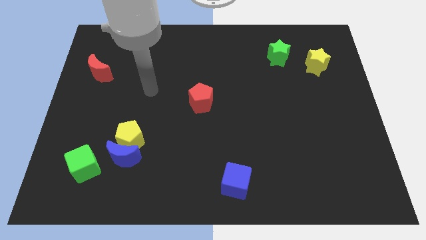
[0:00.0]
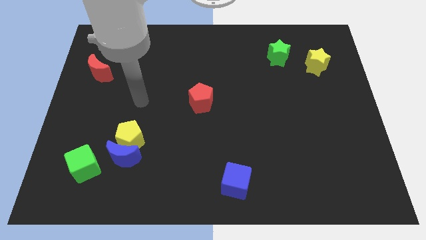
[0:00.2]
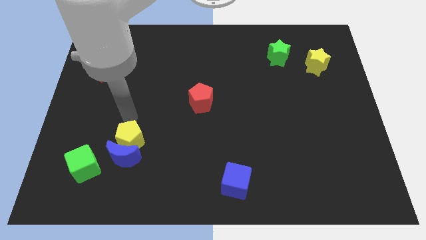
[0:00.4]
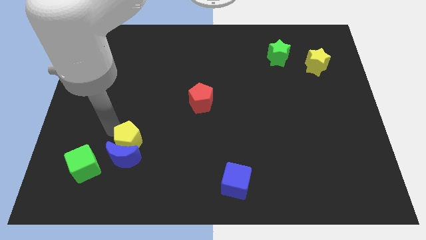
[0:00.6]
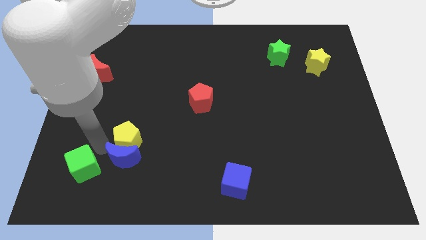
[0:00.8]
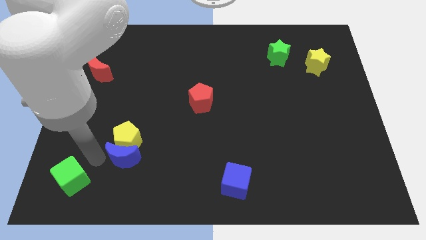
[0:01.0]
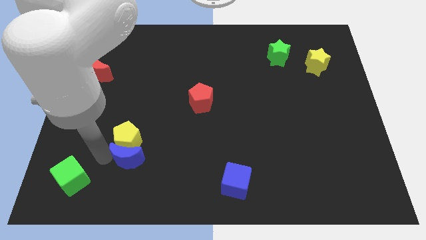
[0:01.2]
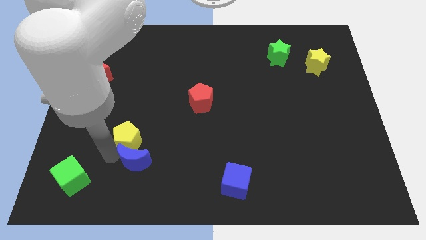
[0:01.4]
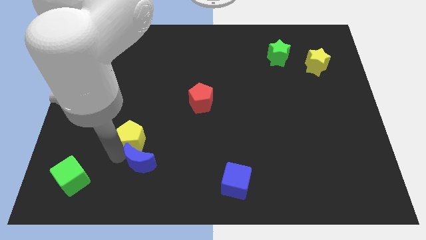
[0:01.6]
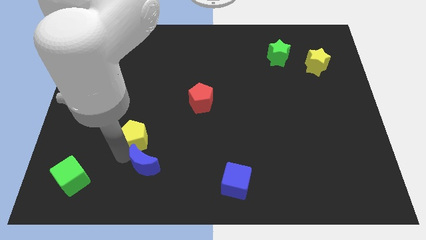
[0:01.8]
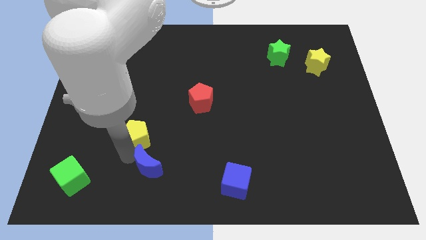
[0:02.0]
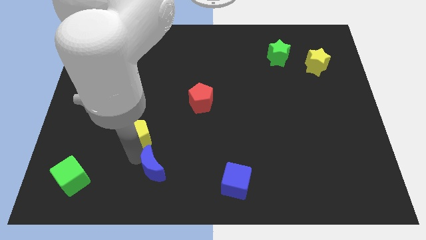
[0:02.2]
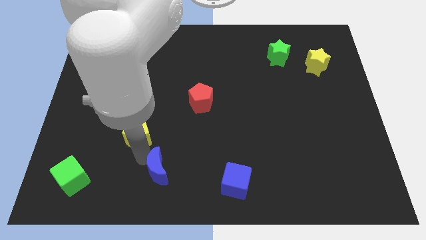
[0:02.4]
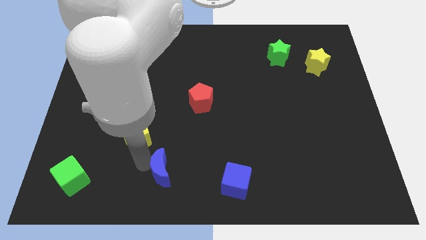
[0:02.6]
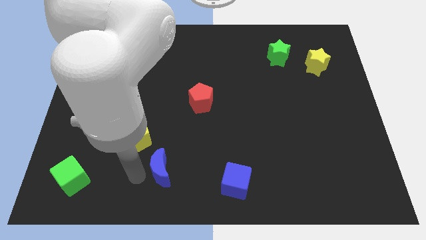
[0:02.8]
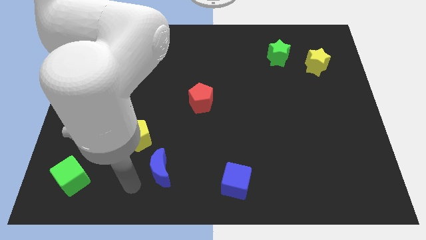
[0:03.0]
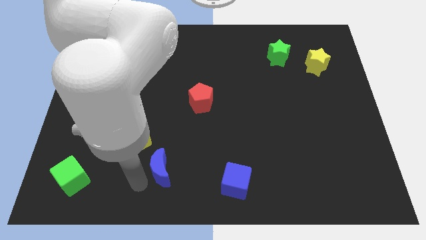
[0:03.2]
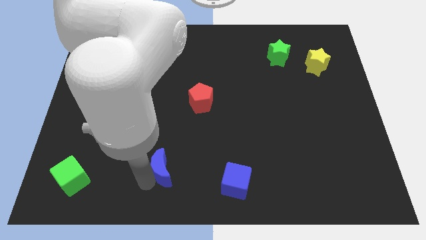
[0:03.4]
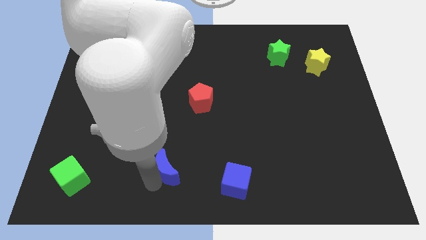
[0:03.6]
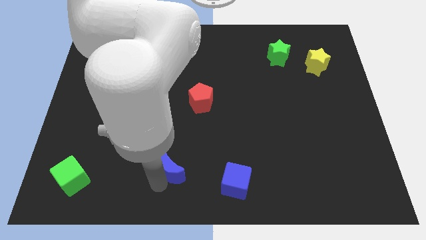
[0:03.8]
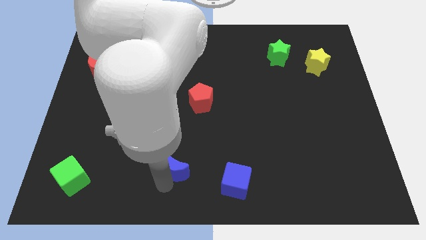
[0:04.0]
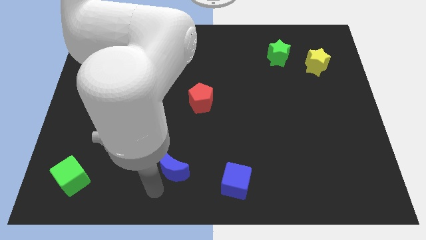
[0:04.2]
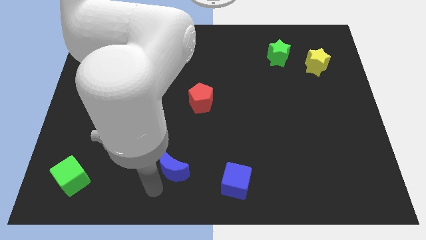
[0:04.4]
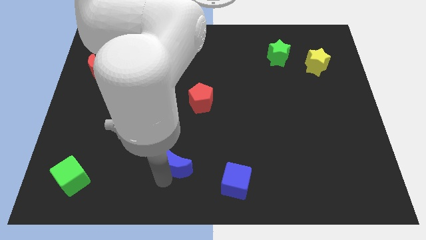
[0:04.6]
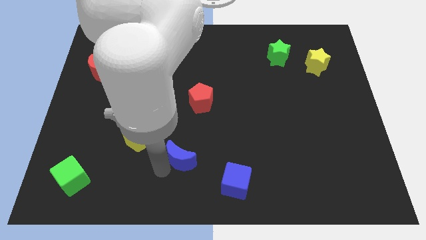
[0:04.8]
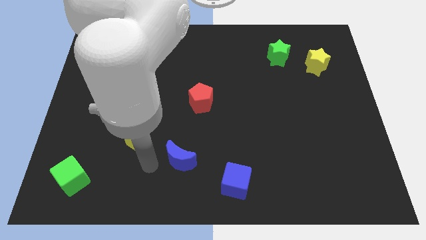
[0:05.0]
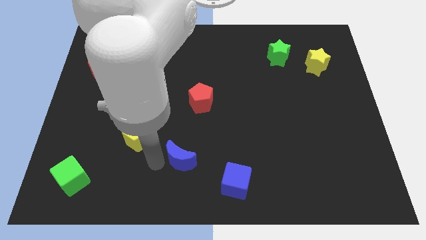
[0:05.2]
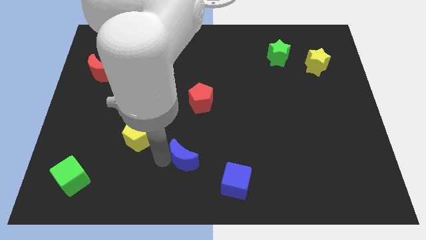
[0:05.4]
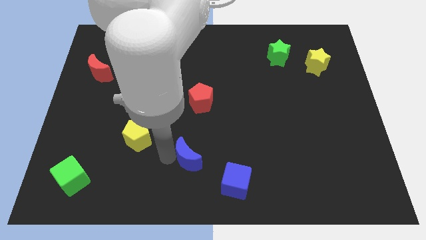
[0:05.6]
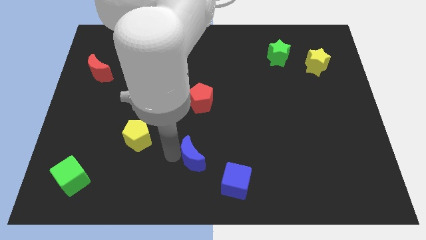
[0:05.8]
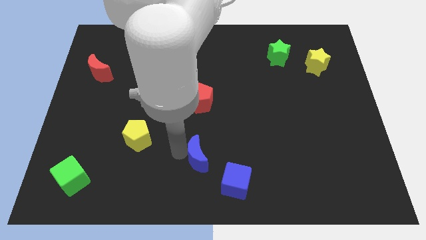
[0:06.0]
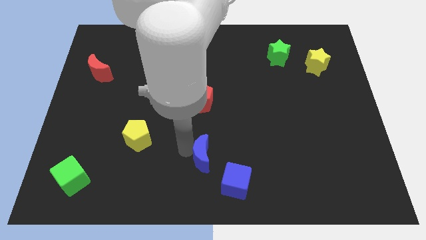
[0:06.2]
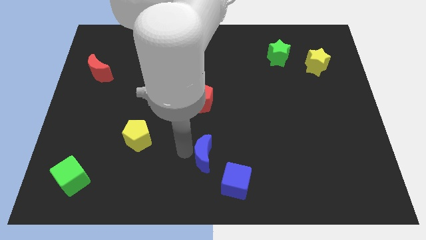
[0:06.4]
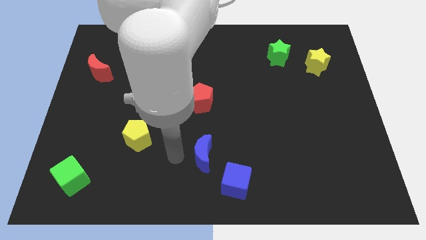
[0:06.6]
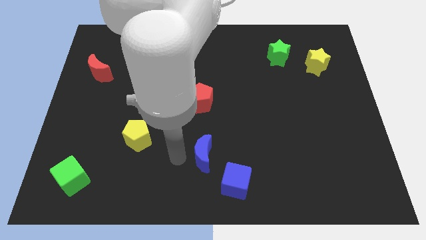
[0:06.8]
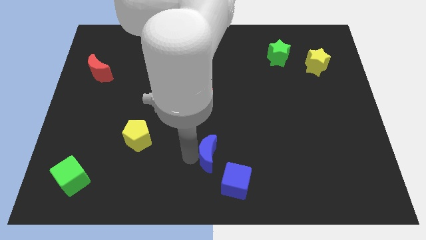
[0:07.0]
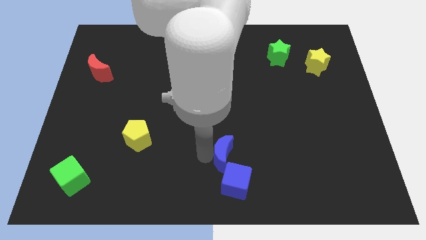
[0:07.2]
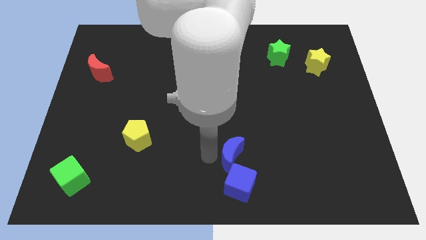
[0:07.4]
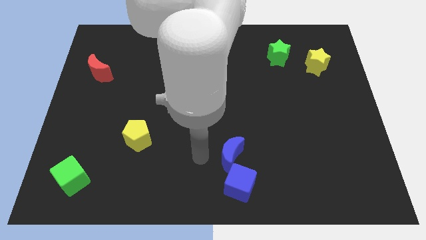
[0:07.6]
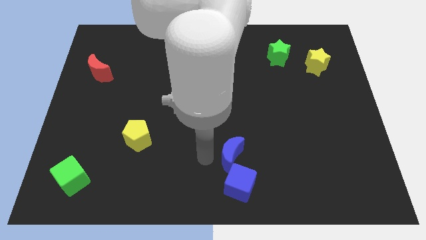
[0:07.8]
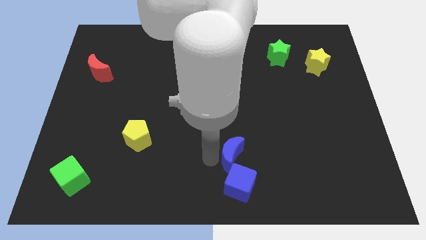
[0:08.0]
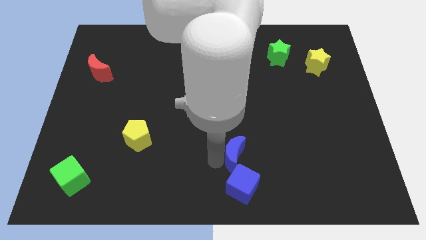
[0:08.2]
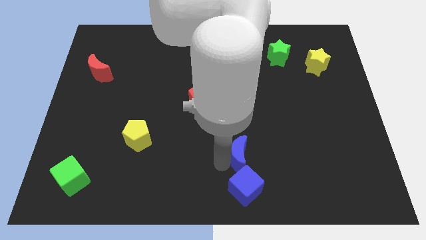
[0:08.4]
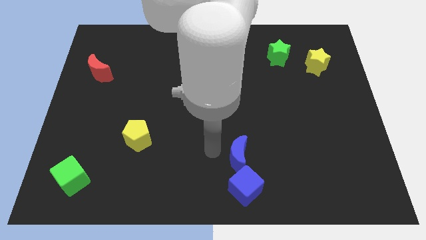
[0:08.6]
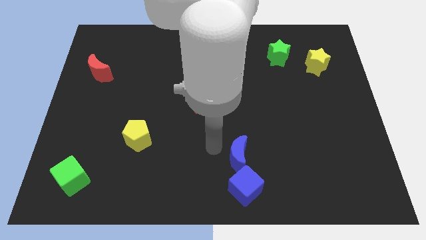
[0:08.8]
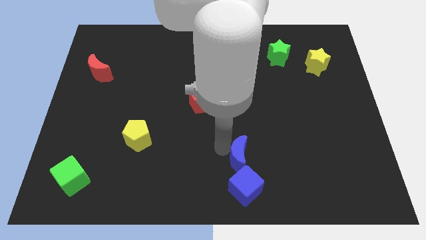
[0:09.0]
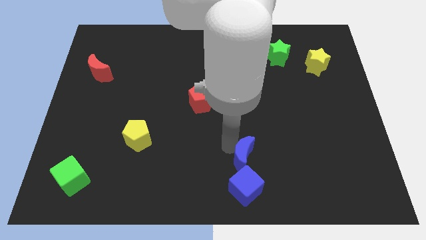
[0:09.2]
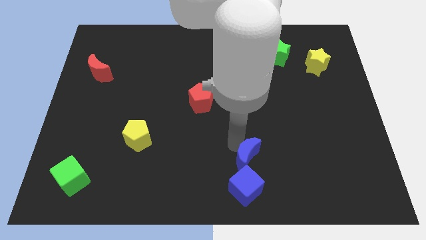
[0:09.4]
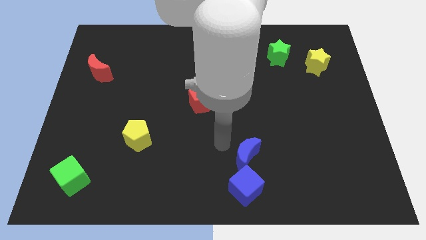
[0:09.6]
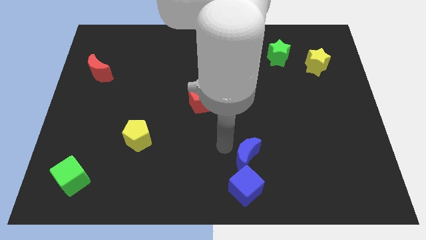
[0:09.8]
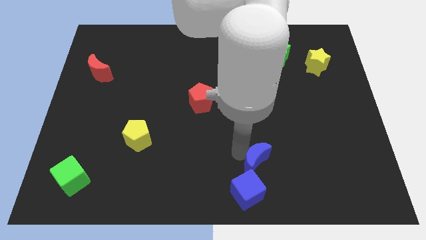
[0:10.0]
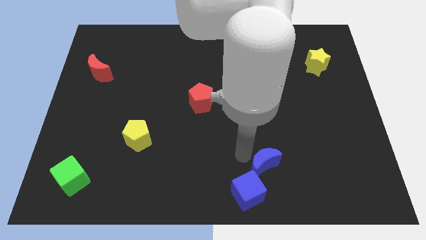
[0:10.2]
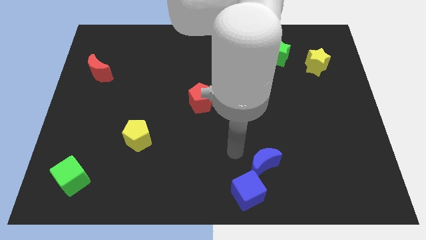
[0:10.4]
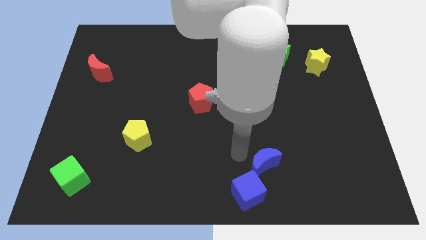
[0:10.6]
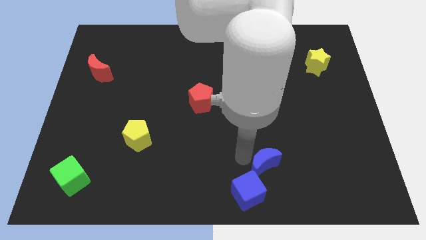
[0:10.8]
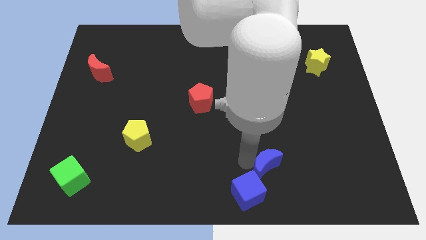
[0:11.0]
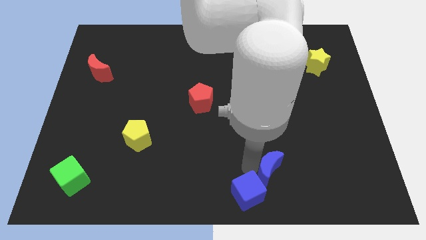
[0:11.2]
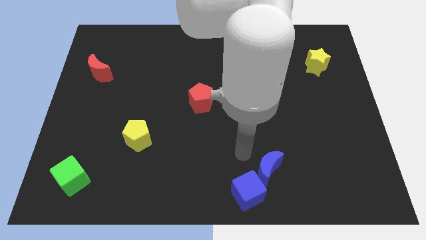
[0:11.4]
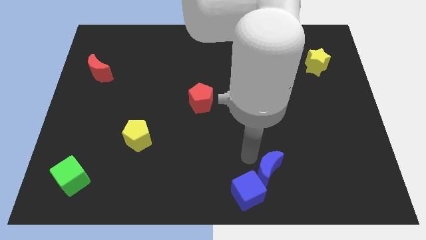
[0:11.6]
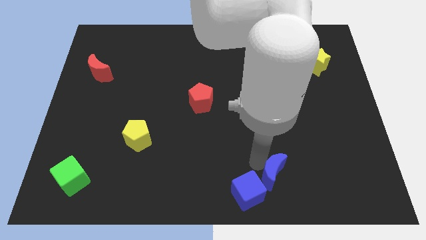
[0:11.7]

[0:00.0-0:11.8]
slide the blue moon to the right of the blue cube

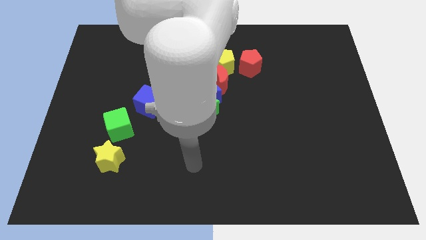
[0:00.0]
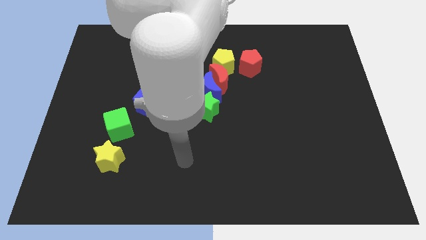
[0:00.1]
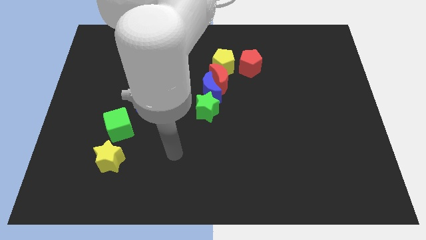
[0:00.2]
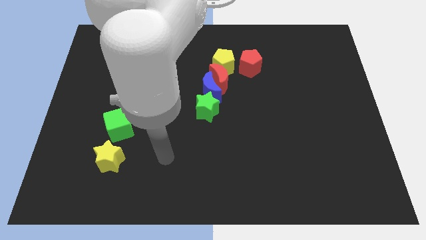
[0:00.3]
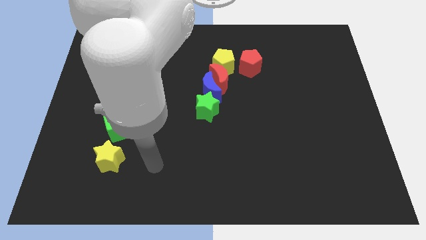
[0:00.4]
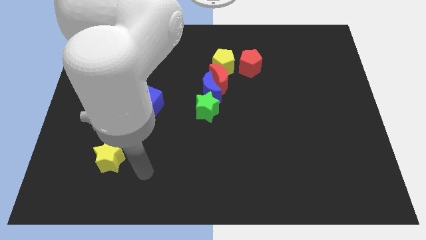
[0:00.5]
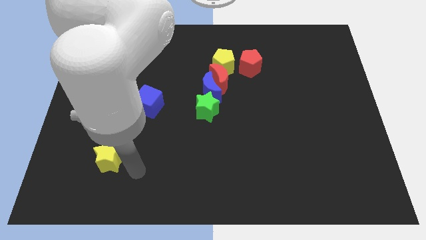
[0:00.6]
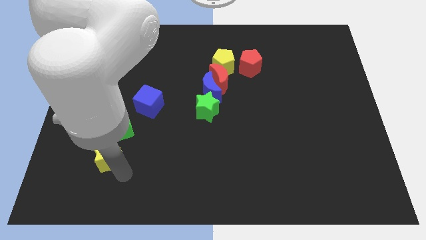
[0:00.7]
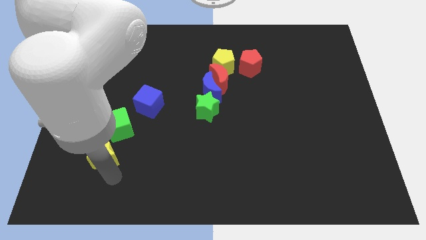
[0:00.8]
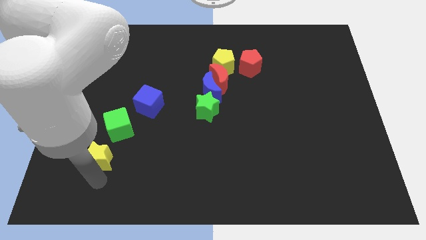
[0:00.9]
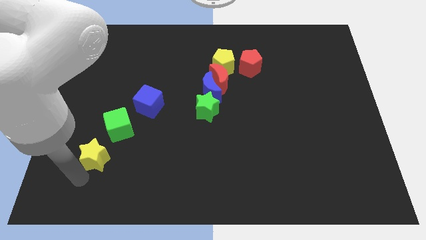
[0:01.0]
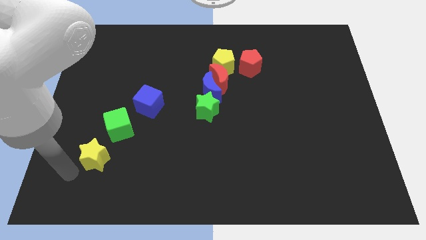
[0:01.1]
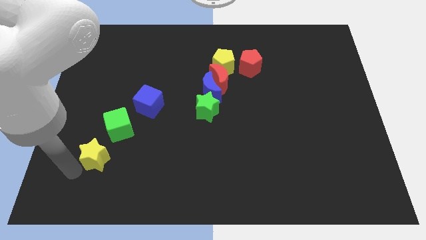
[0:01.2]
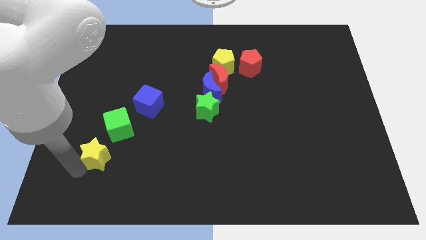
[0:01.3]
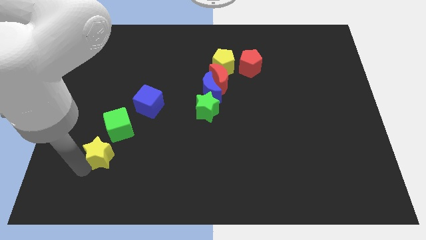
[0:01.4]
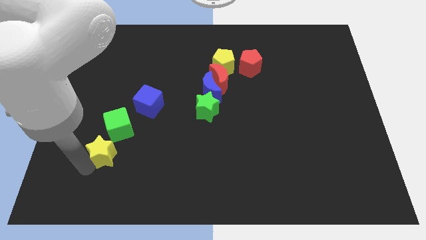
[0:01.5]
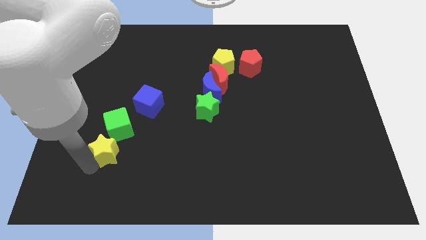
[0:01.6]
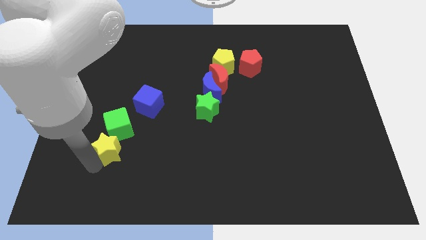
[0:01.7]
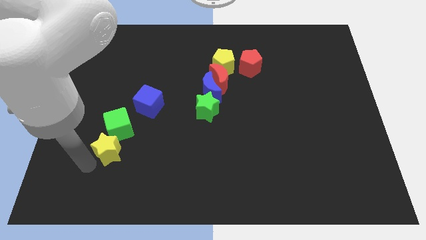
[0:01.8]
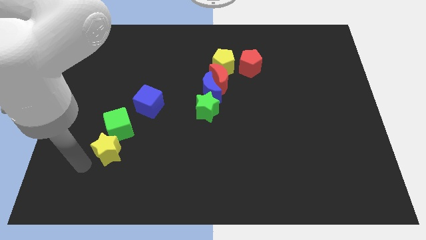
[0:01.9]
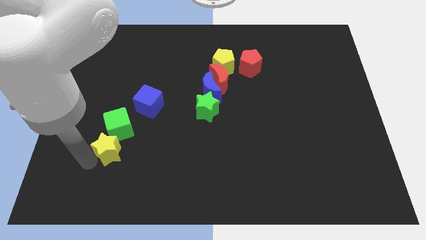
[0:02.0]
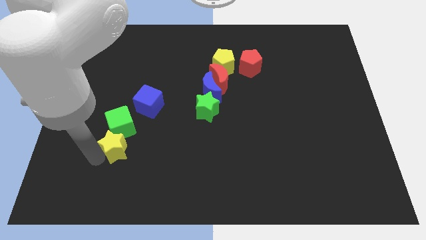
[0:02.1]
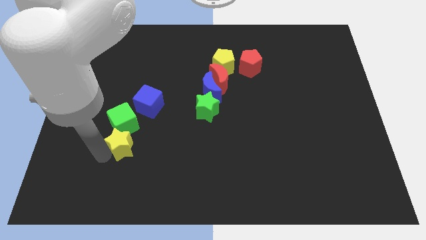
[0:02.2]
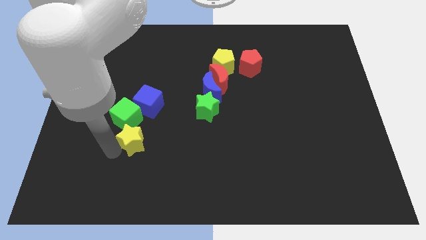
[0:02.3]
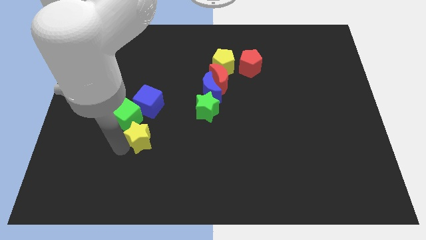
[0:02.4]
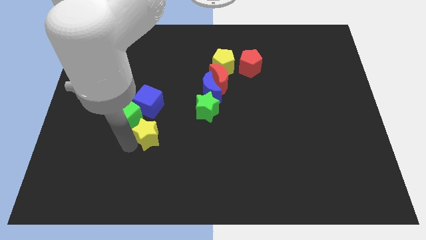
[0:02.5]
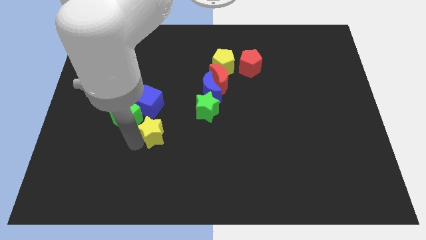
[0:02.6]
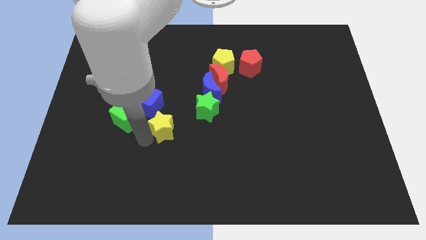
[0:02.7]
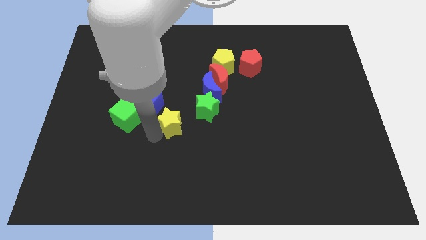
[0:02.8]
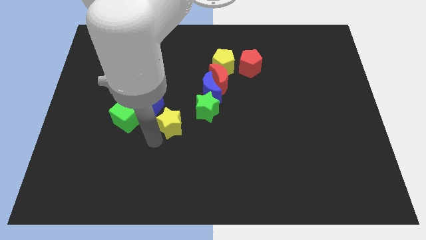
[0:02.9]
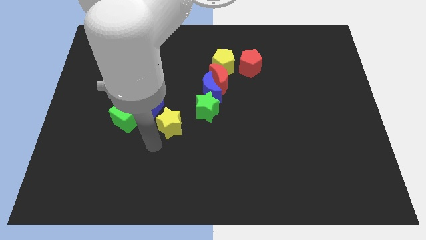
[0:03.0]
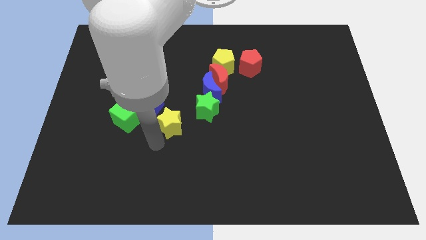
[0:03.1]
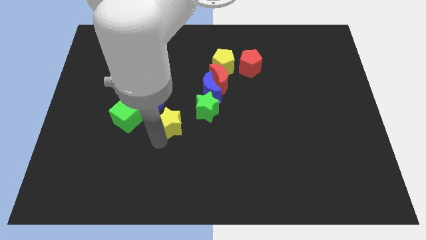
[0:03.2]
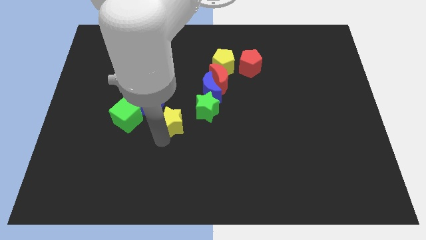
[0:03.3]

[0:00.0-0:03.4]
move the yellow star diagonally down and to the left of the blue moon
